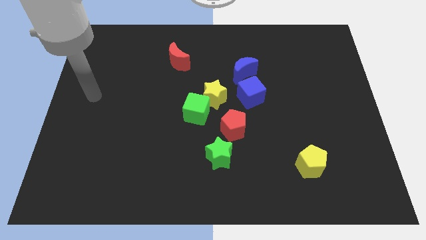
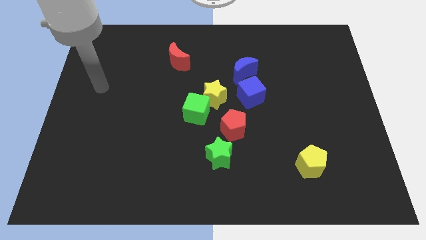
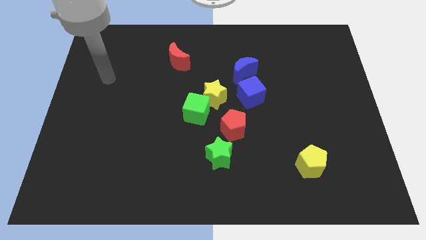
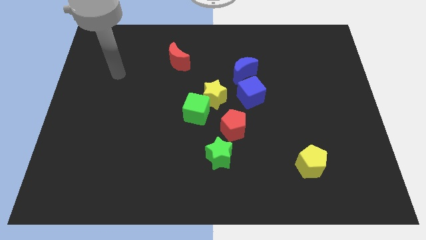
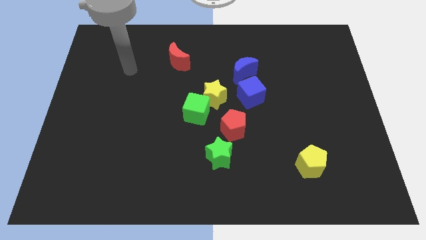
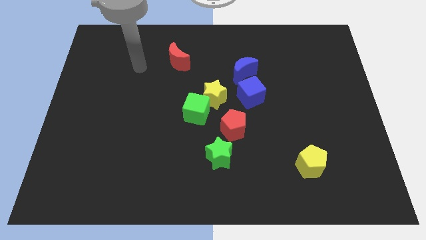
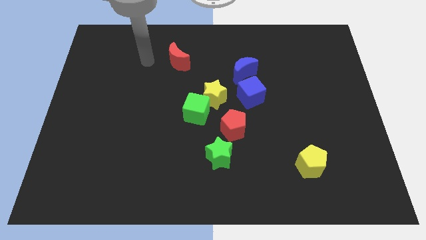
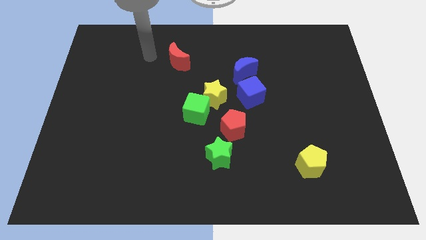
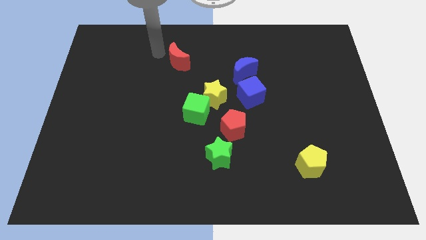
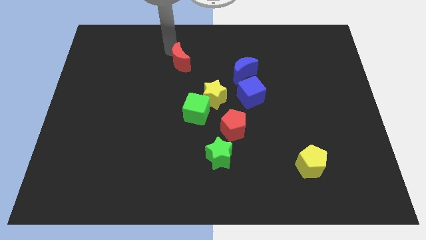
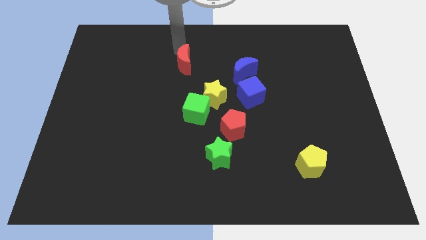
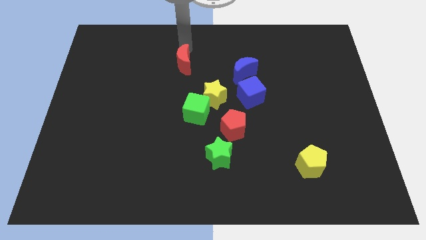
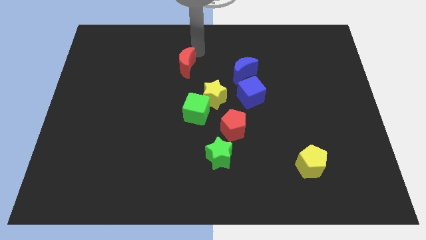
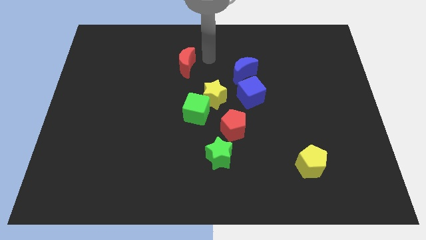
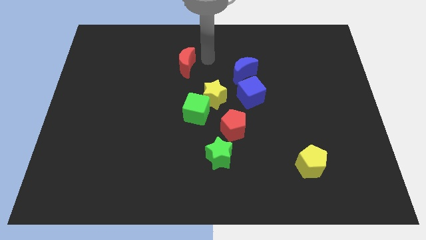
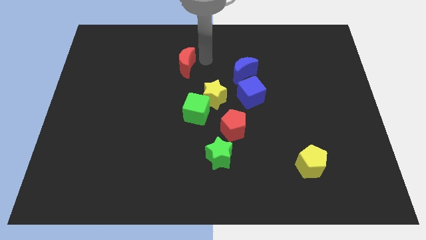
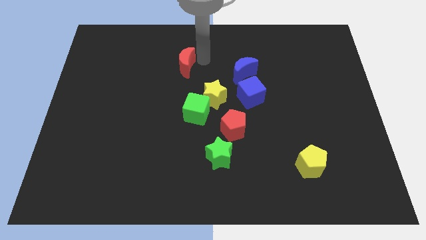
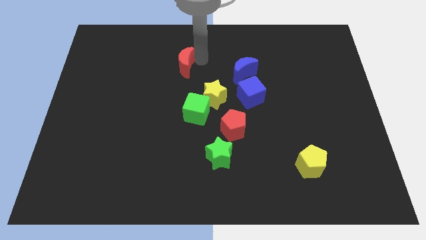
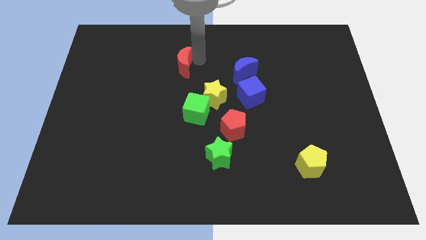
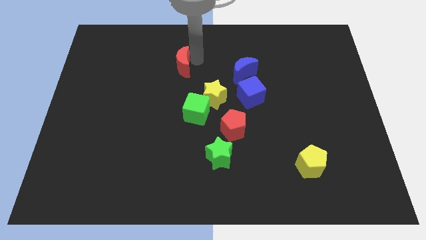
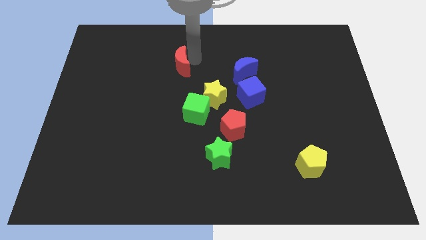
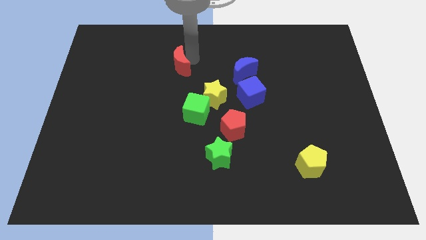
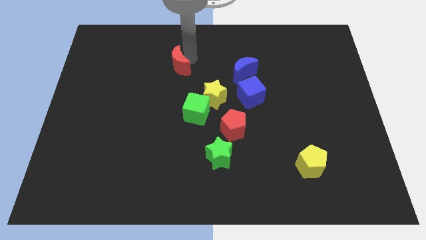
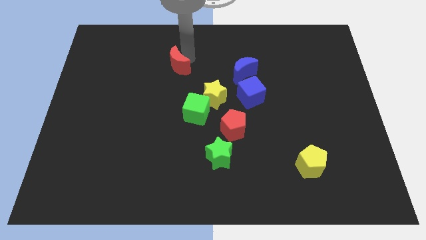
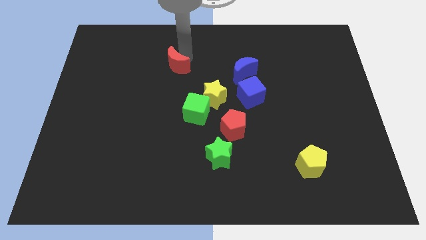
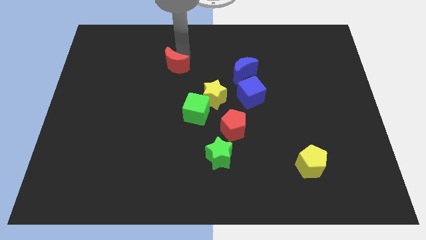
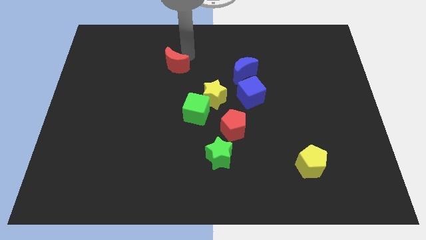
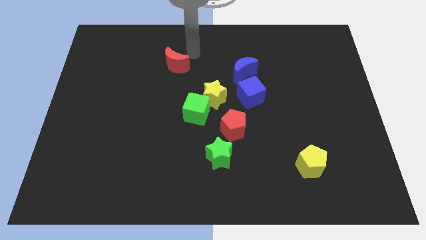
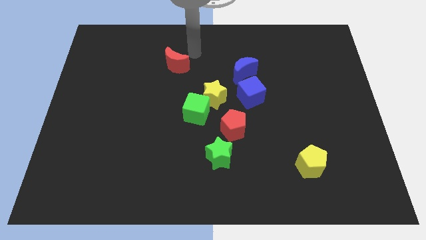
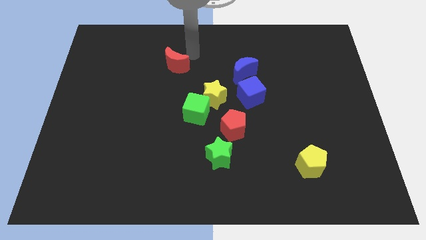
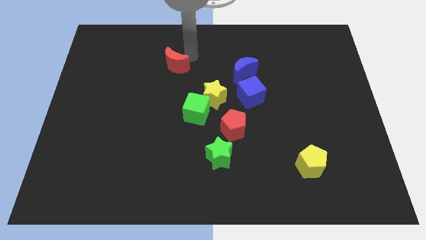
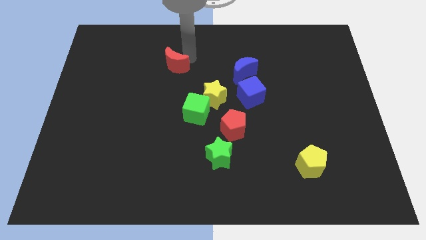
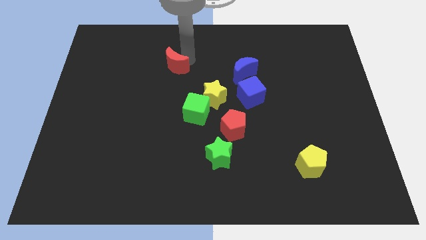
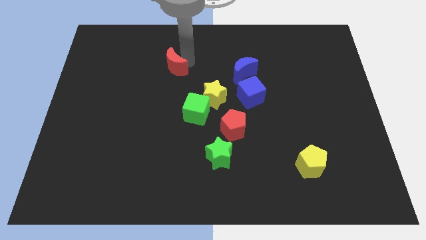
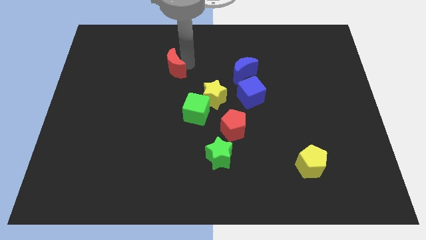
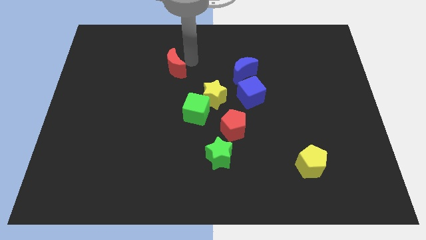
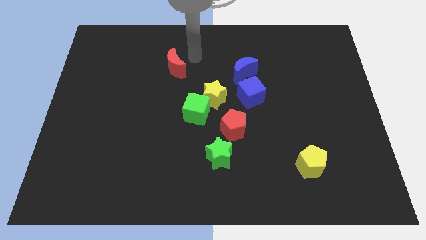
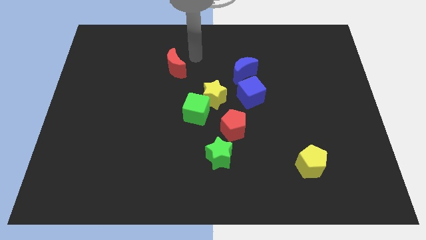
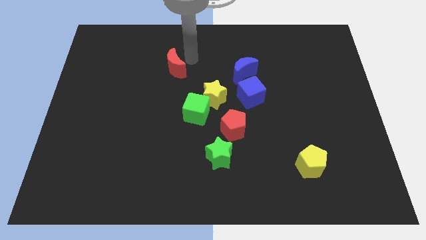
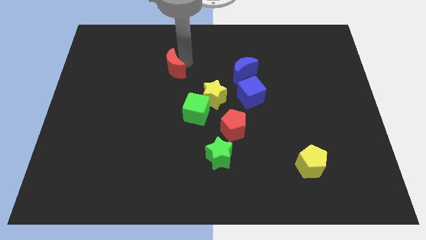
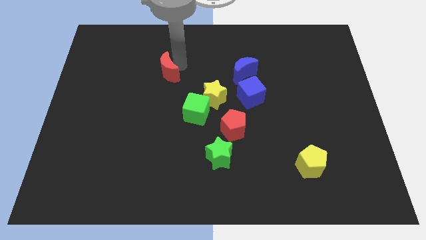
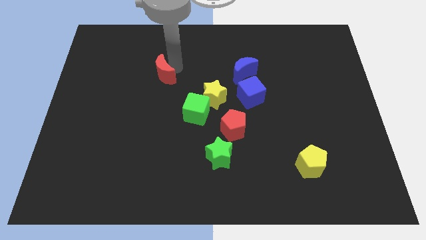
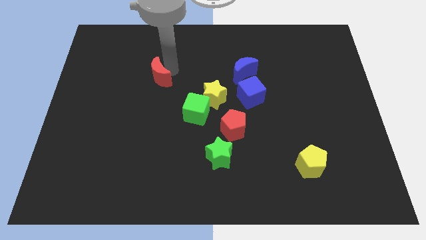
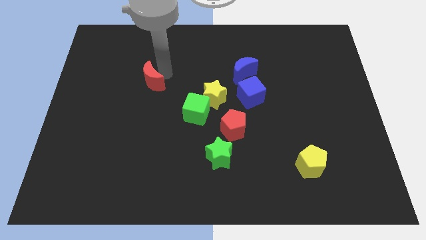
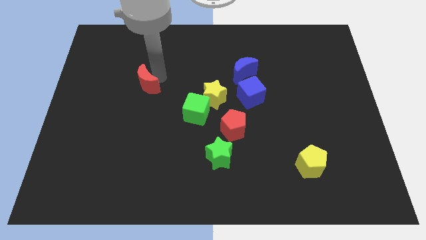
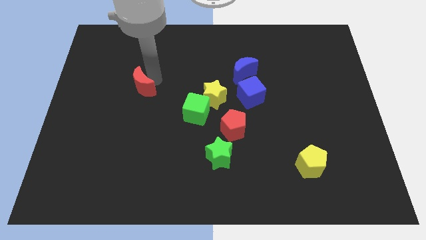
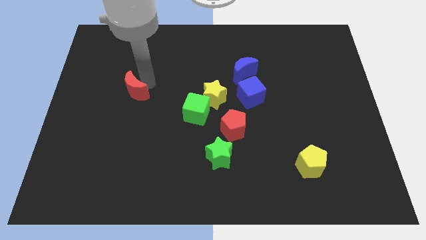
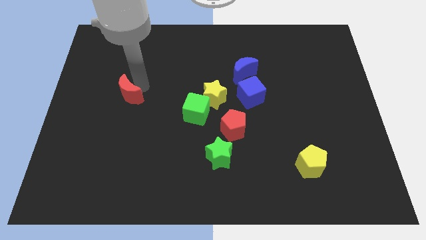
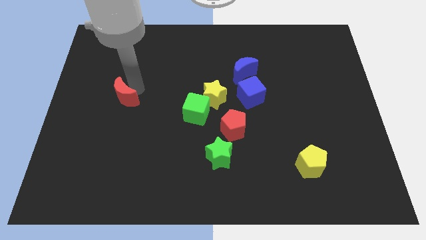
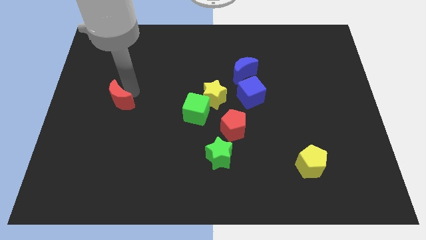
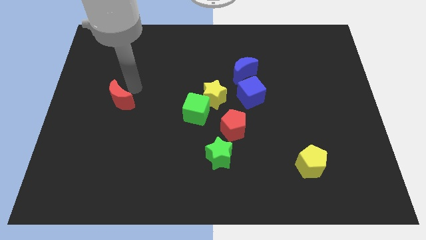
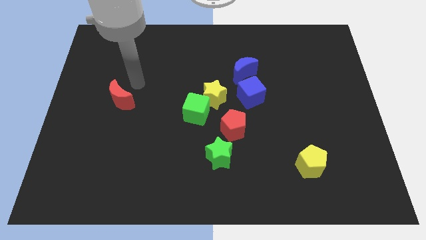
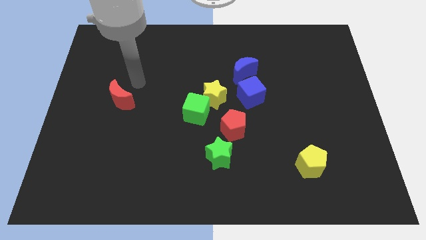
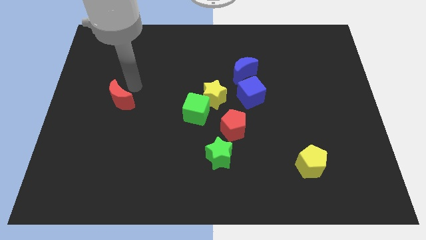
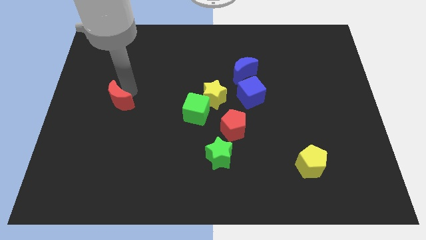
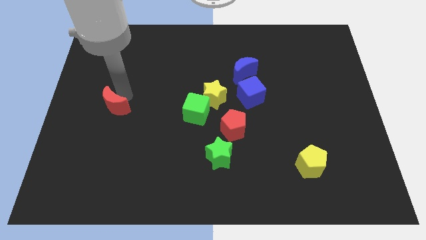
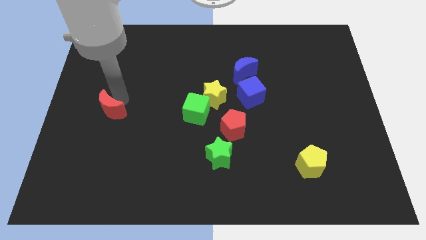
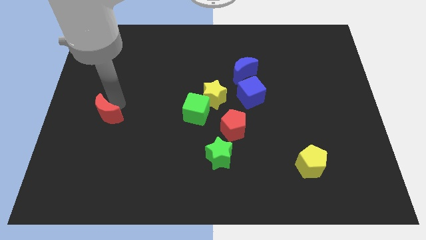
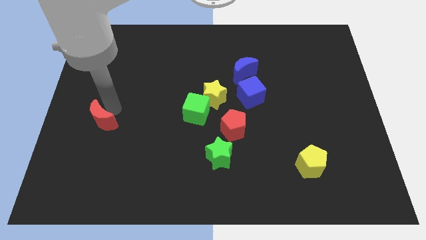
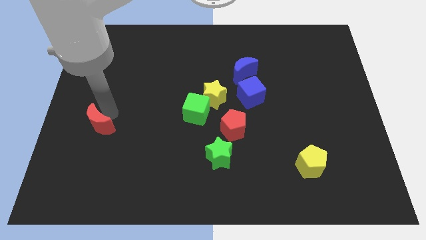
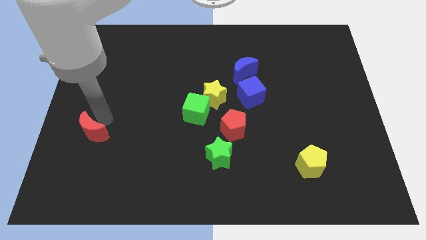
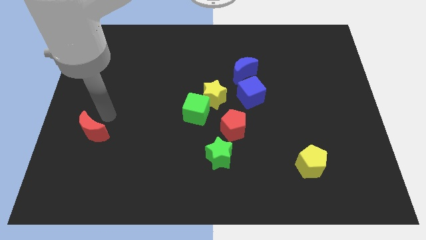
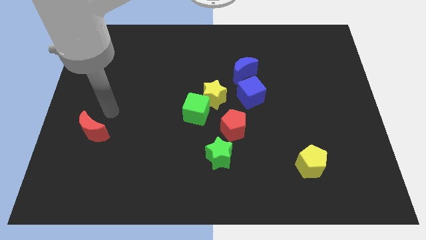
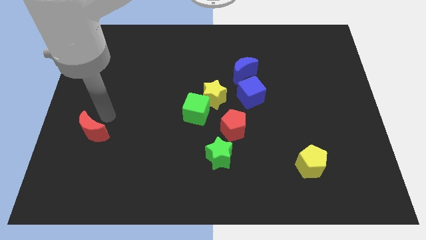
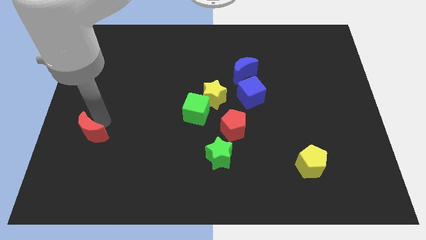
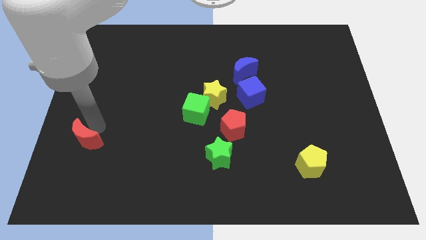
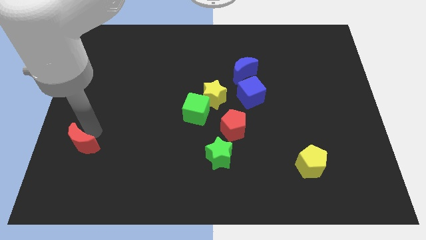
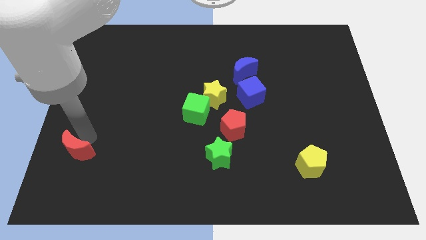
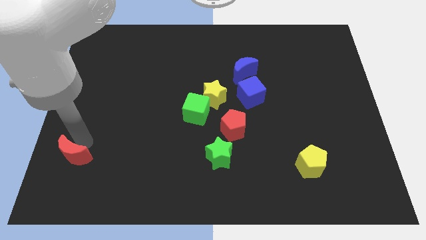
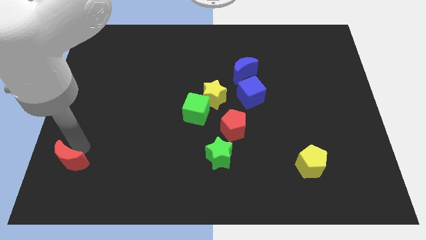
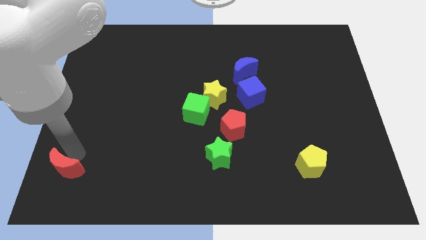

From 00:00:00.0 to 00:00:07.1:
push the red moon to the bottom left corner
